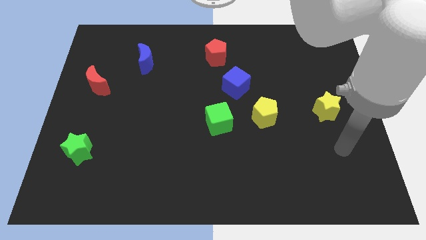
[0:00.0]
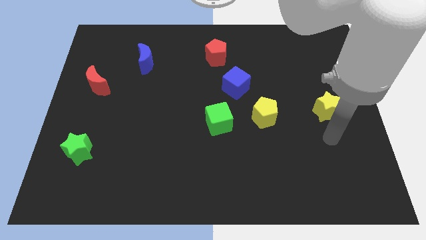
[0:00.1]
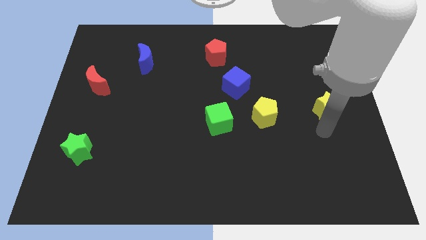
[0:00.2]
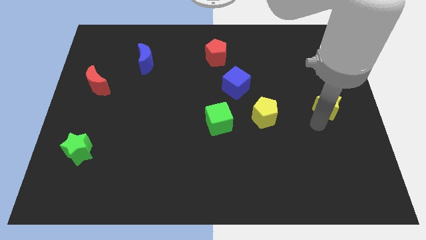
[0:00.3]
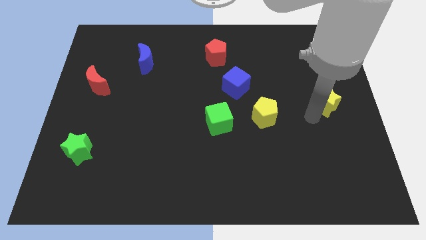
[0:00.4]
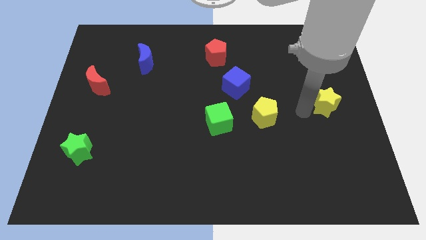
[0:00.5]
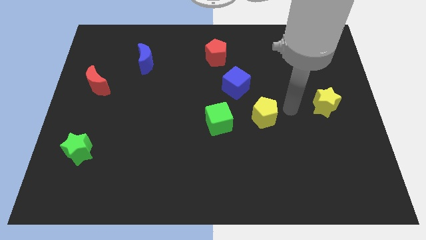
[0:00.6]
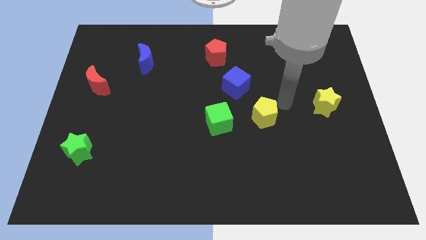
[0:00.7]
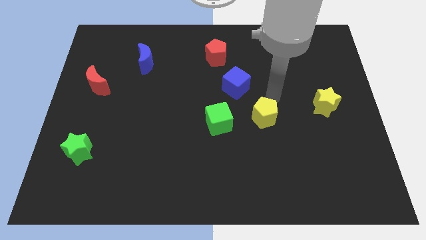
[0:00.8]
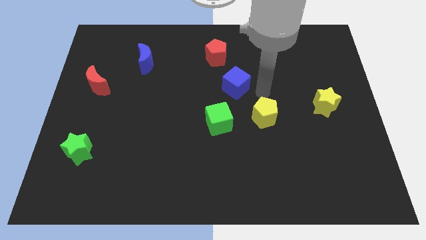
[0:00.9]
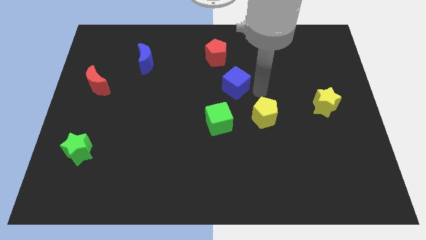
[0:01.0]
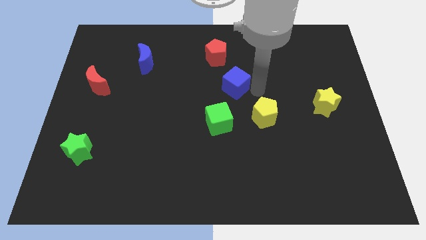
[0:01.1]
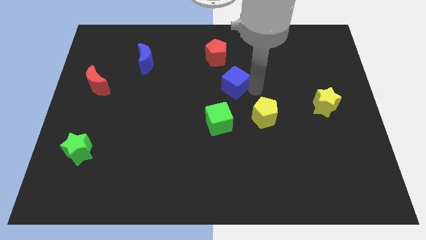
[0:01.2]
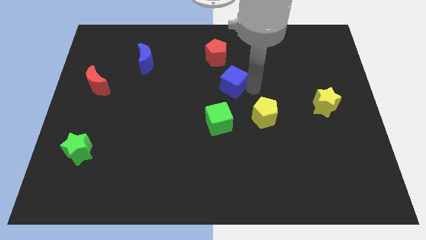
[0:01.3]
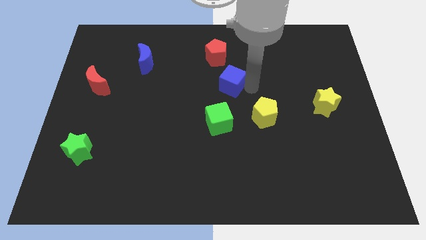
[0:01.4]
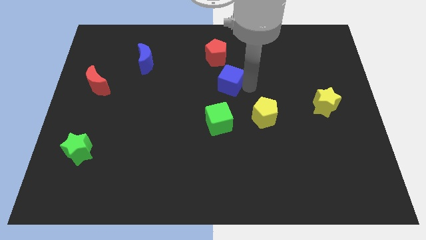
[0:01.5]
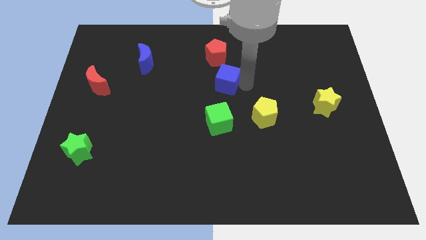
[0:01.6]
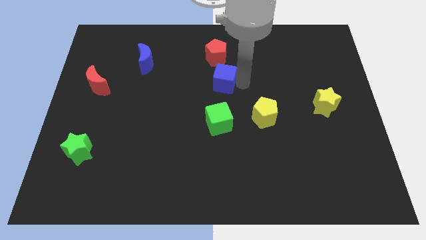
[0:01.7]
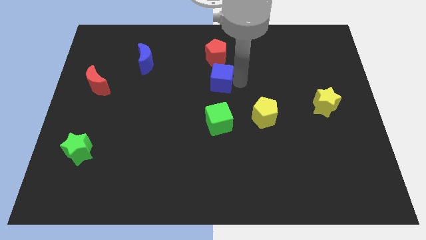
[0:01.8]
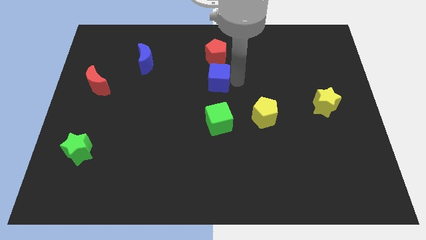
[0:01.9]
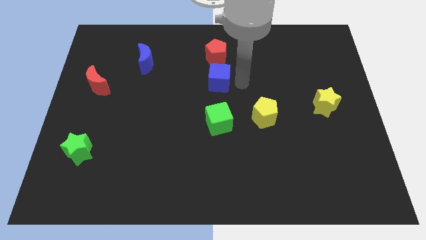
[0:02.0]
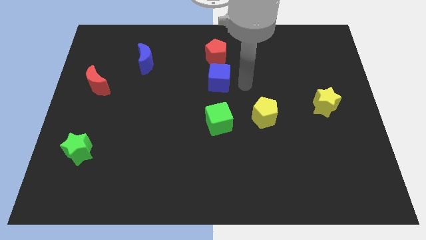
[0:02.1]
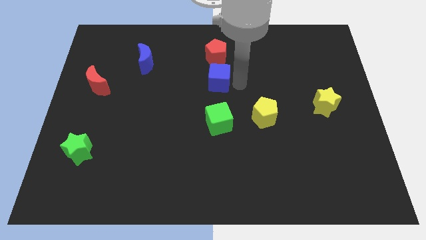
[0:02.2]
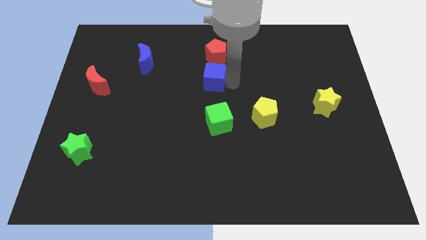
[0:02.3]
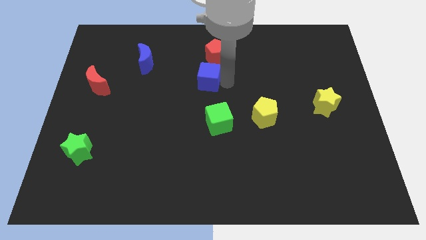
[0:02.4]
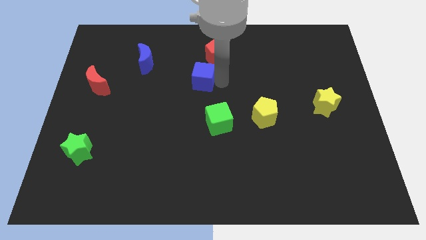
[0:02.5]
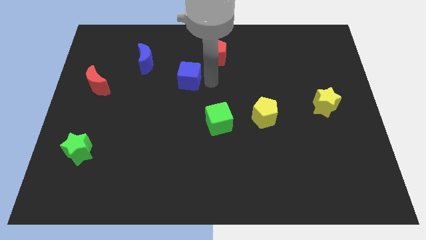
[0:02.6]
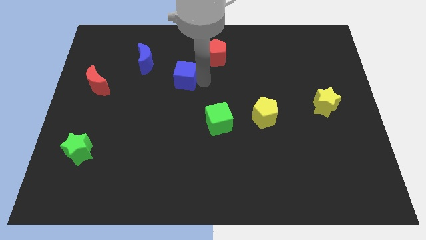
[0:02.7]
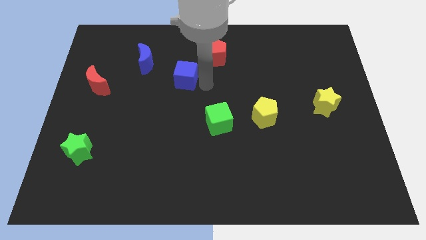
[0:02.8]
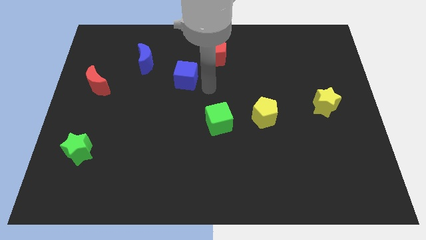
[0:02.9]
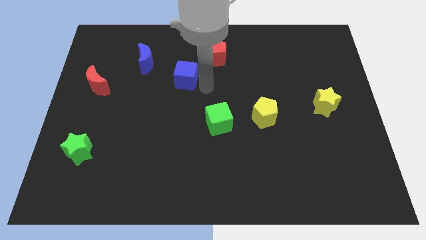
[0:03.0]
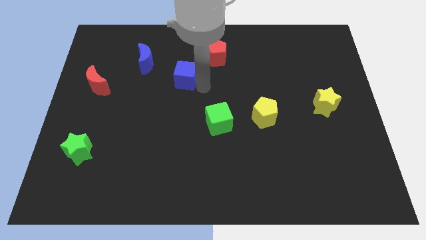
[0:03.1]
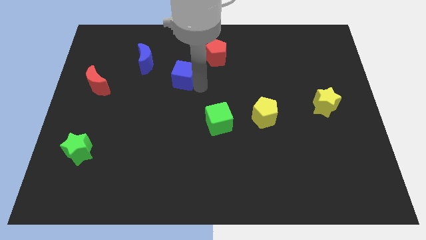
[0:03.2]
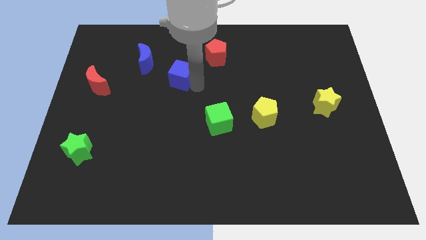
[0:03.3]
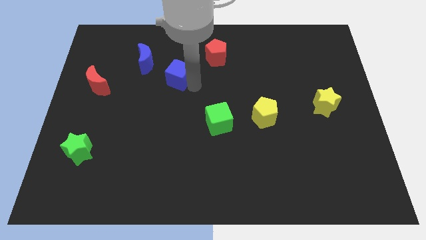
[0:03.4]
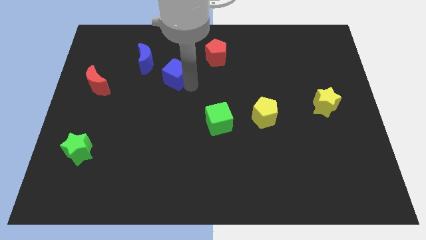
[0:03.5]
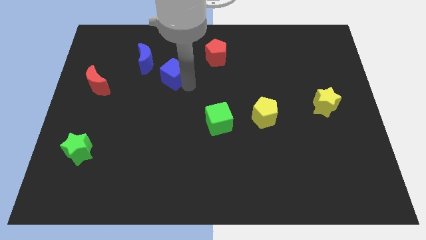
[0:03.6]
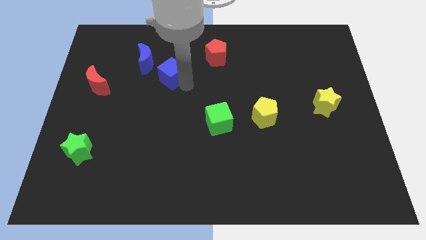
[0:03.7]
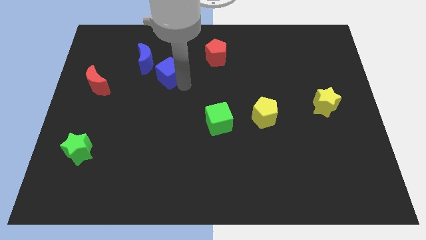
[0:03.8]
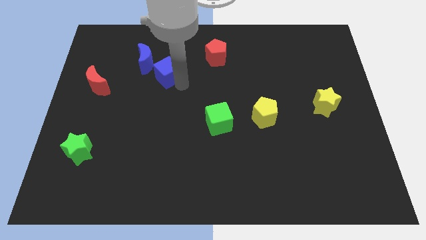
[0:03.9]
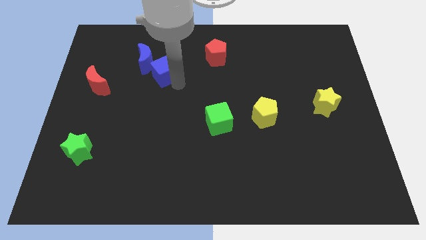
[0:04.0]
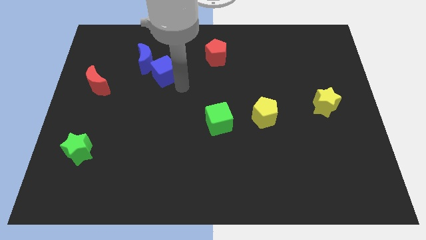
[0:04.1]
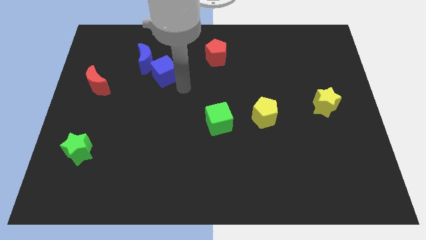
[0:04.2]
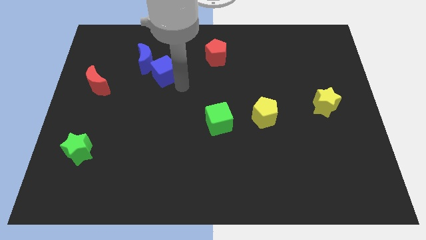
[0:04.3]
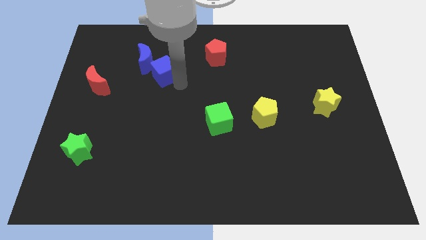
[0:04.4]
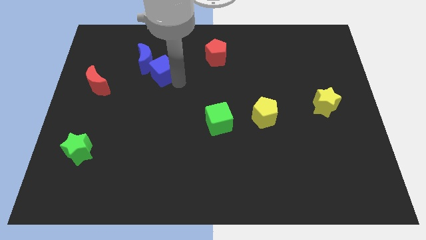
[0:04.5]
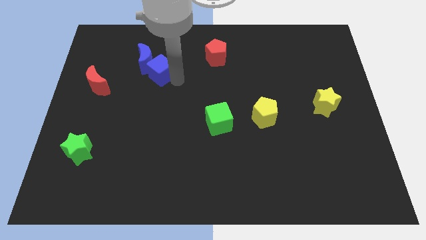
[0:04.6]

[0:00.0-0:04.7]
push the blue cube close to the blue moon

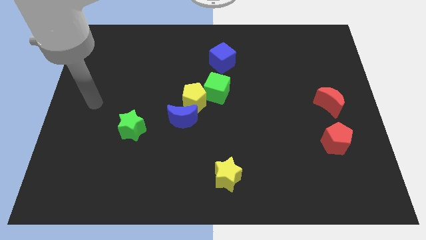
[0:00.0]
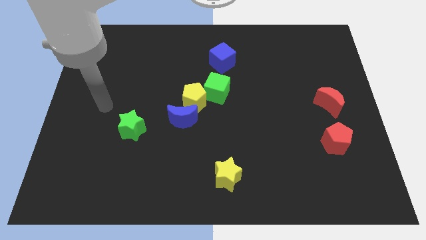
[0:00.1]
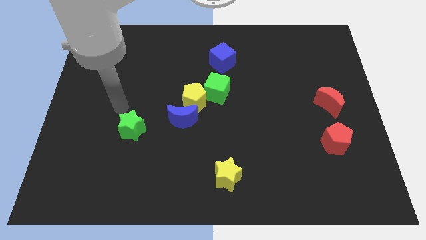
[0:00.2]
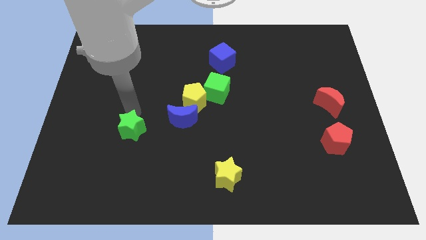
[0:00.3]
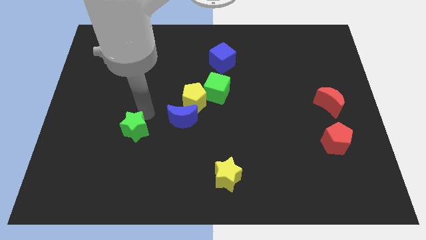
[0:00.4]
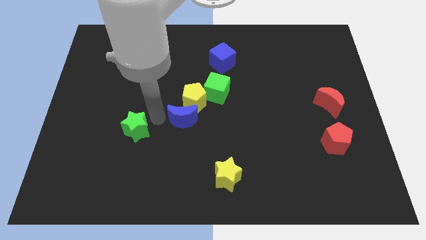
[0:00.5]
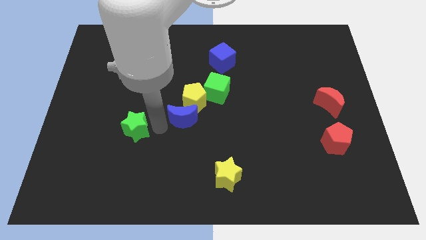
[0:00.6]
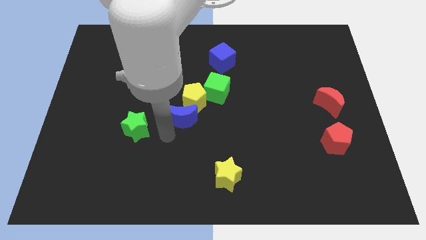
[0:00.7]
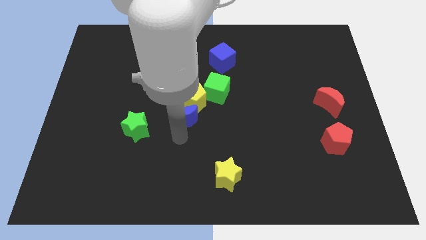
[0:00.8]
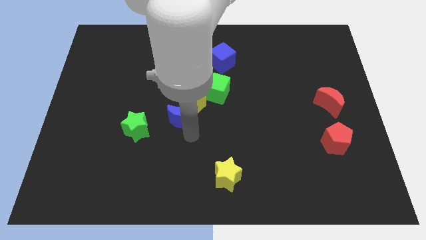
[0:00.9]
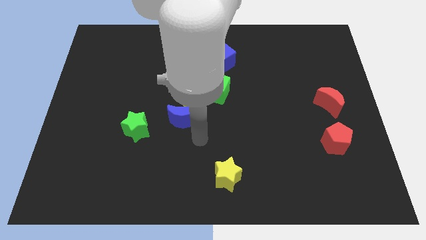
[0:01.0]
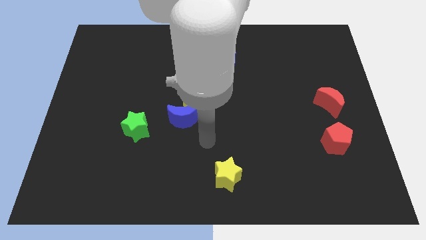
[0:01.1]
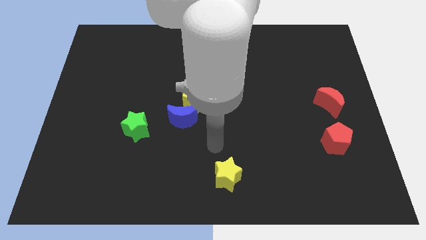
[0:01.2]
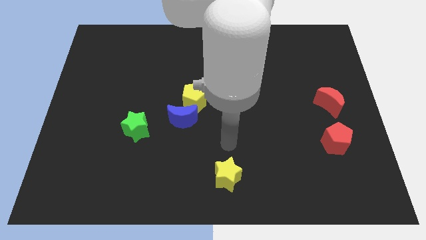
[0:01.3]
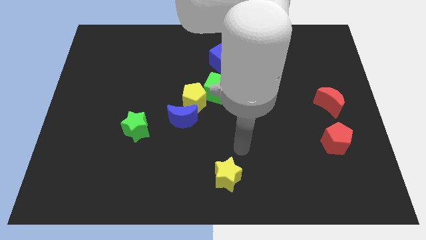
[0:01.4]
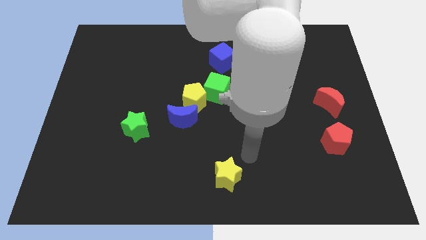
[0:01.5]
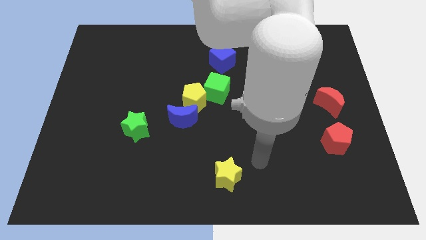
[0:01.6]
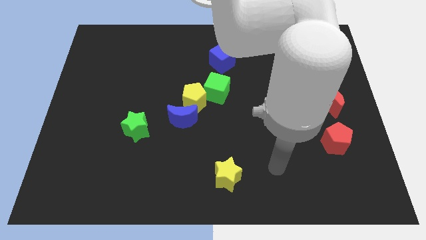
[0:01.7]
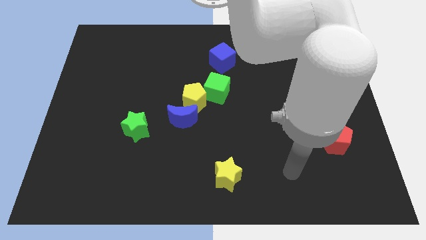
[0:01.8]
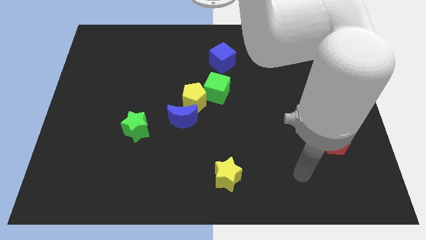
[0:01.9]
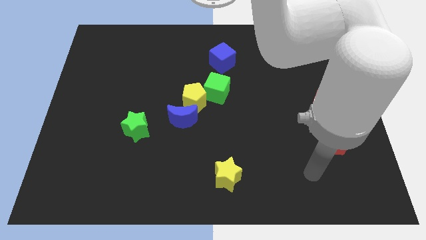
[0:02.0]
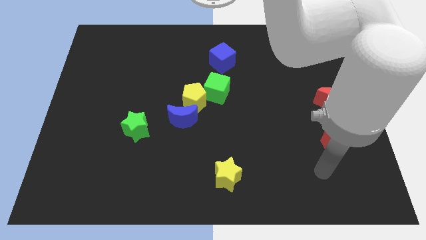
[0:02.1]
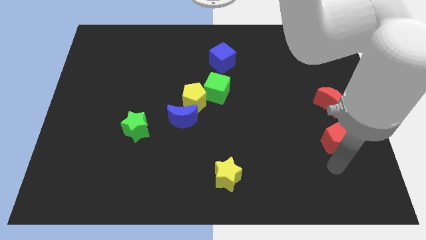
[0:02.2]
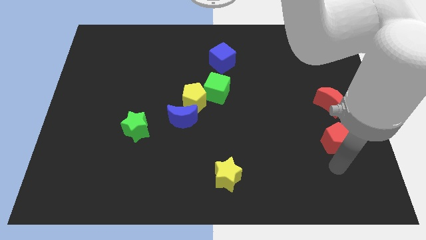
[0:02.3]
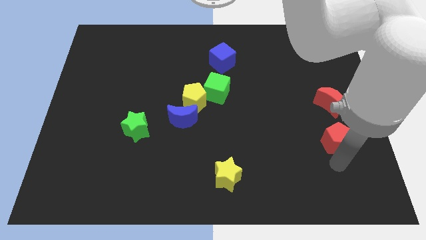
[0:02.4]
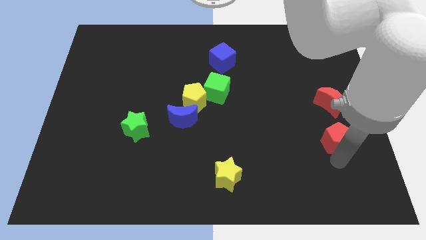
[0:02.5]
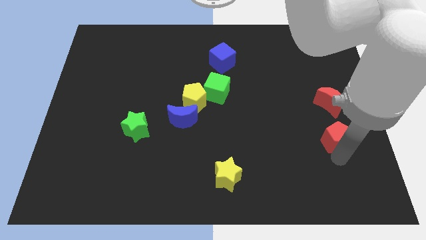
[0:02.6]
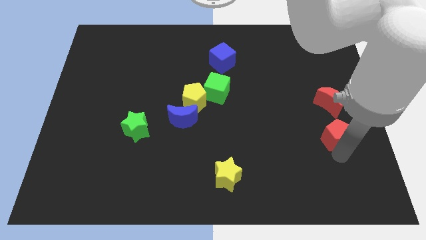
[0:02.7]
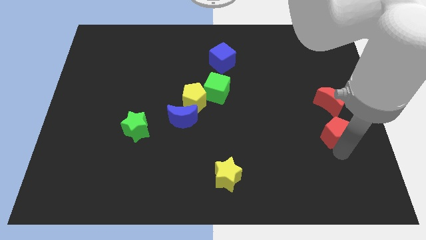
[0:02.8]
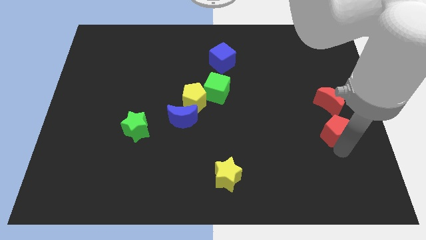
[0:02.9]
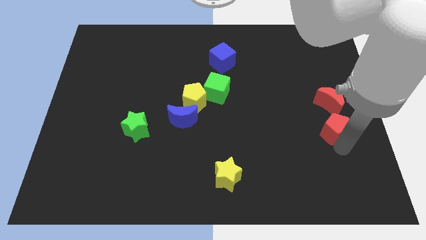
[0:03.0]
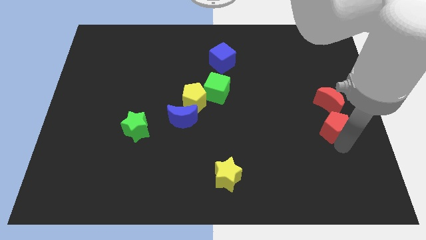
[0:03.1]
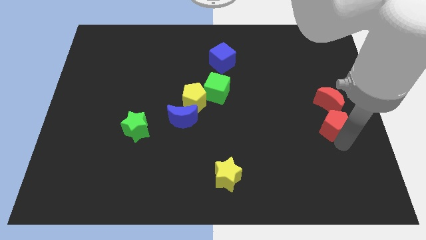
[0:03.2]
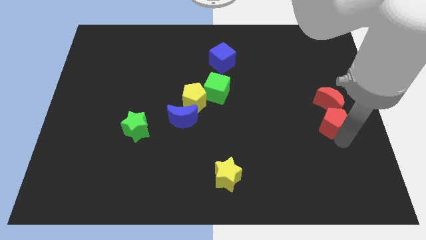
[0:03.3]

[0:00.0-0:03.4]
slide the red pentagon towards the red moon
